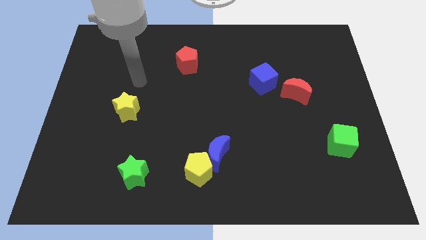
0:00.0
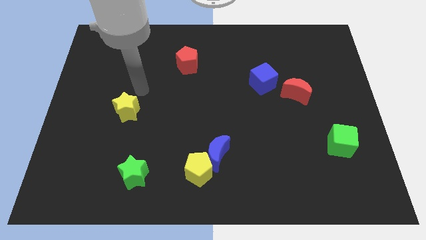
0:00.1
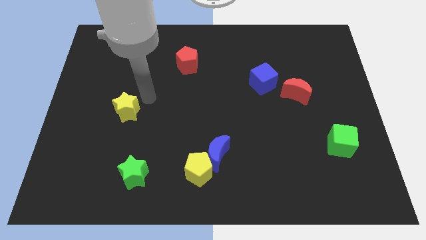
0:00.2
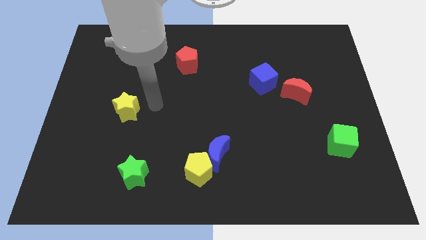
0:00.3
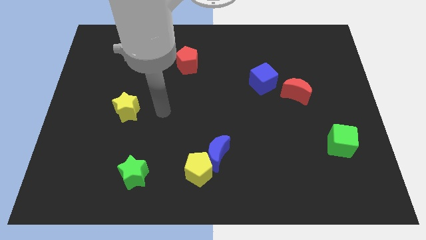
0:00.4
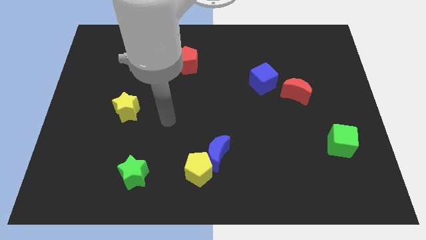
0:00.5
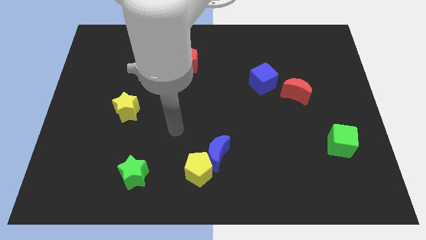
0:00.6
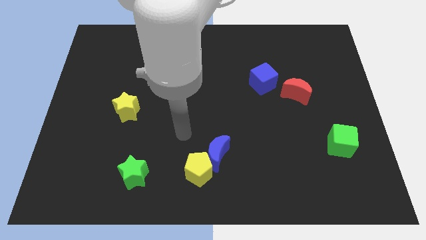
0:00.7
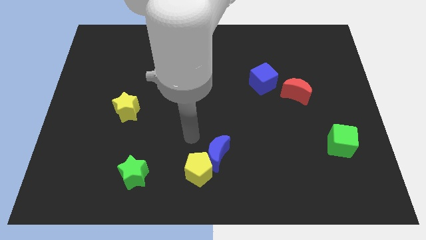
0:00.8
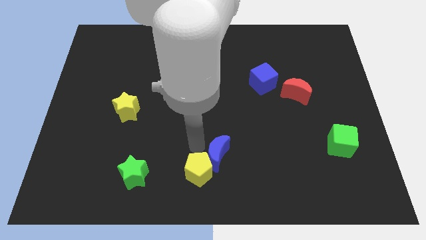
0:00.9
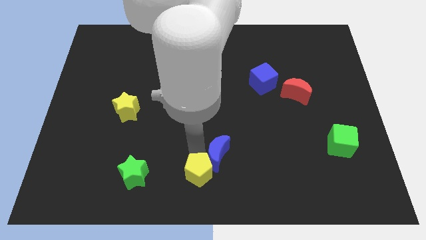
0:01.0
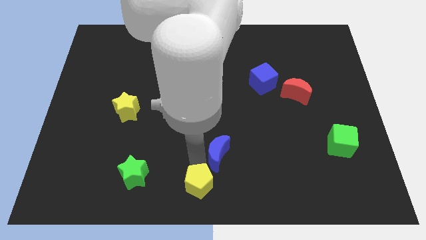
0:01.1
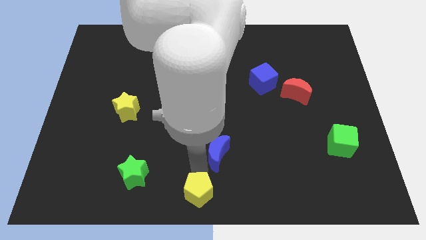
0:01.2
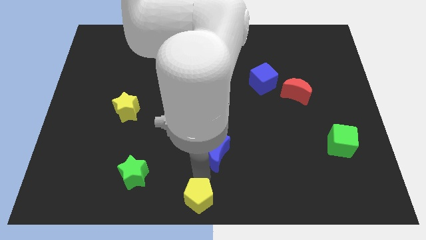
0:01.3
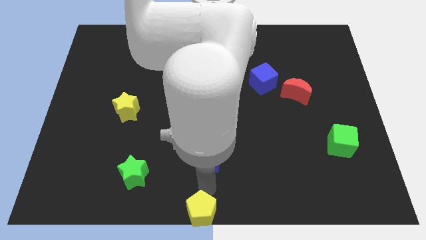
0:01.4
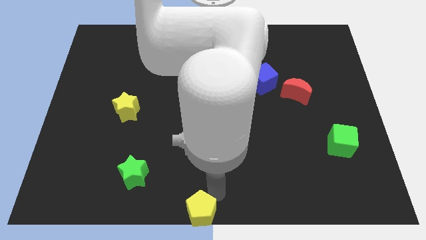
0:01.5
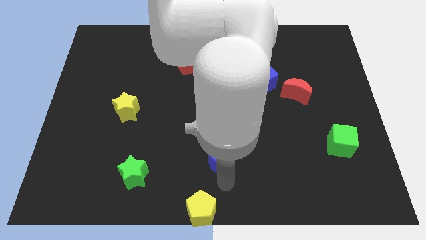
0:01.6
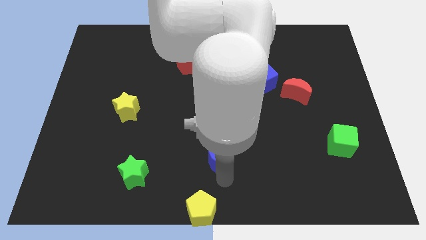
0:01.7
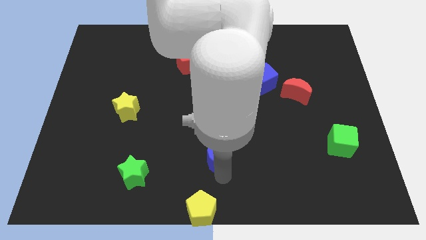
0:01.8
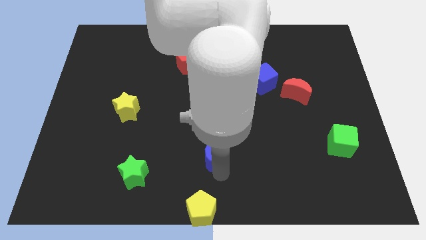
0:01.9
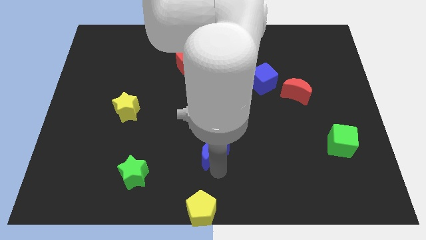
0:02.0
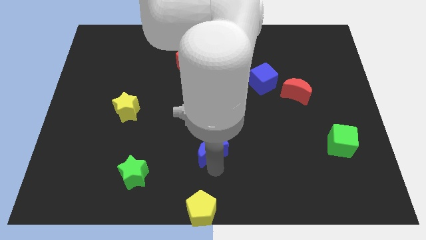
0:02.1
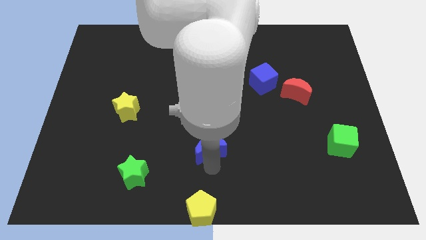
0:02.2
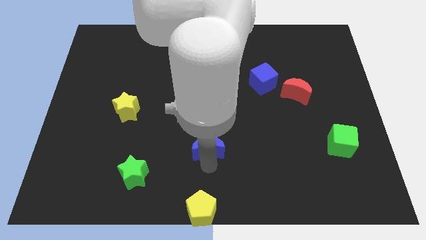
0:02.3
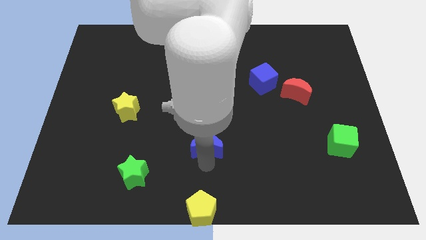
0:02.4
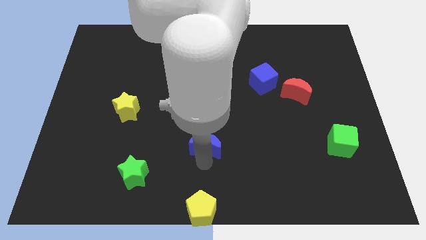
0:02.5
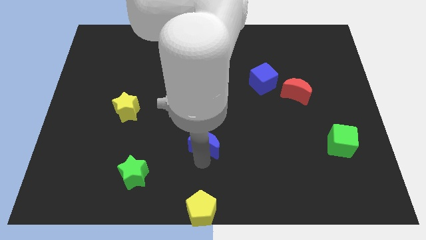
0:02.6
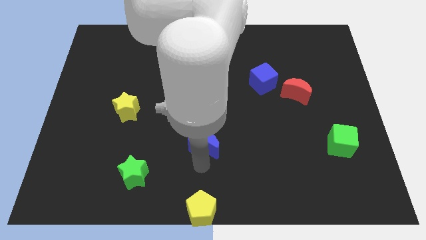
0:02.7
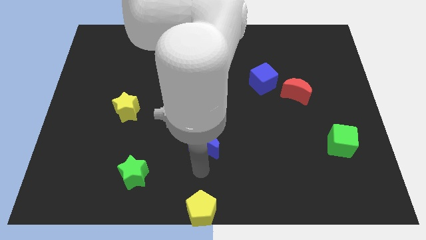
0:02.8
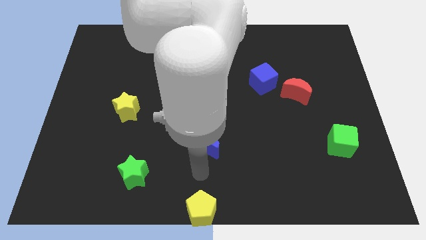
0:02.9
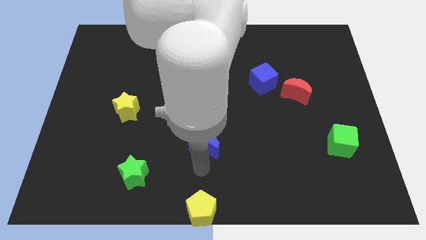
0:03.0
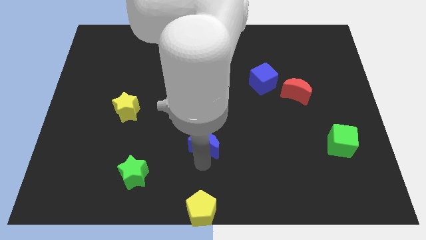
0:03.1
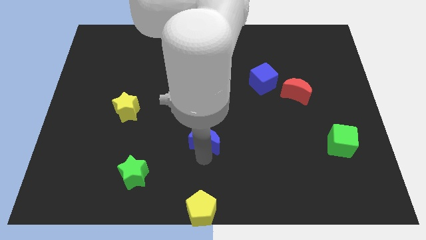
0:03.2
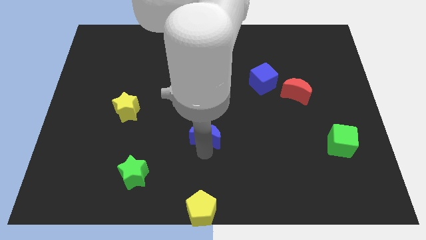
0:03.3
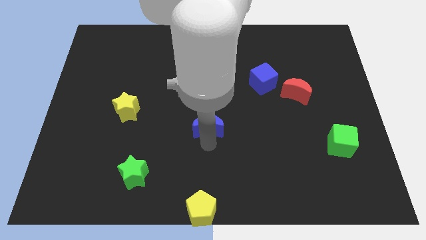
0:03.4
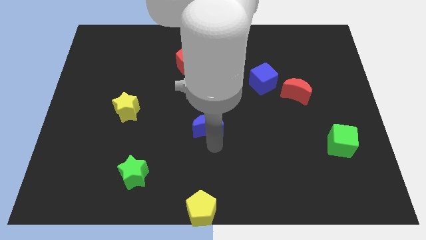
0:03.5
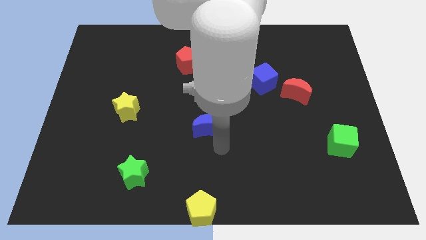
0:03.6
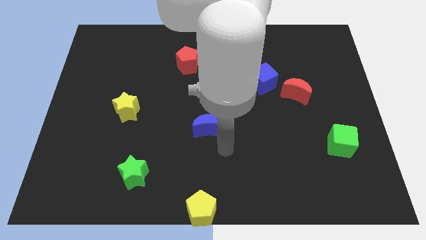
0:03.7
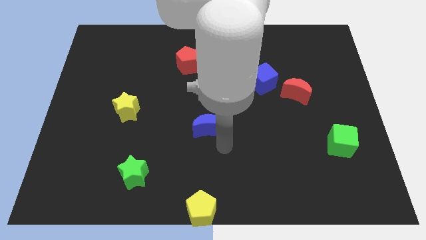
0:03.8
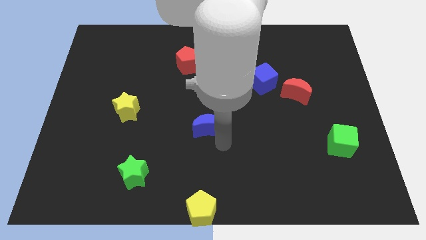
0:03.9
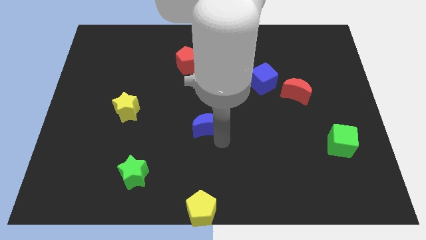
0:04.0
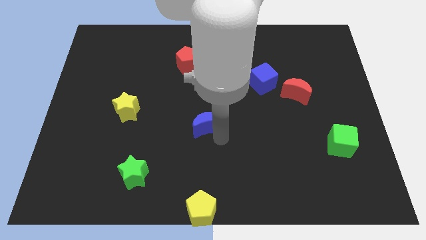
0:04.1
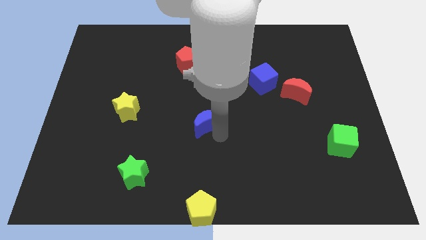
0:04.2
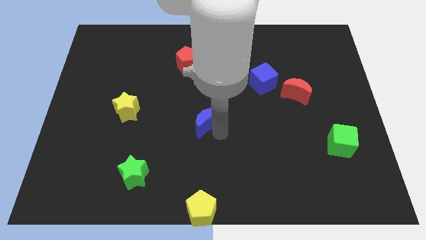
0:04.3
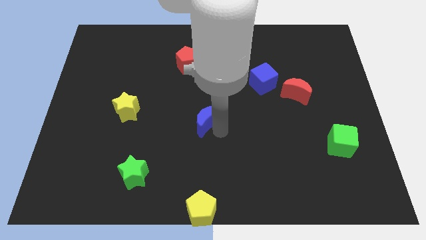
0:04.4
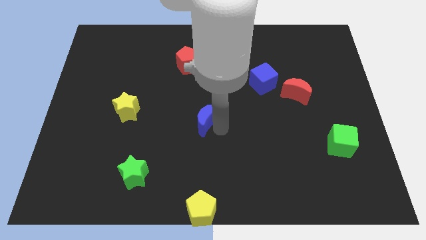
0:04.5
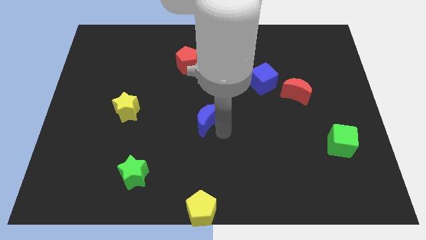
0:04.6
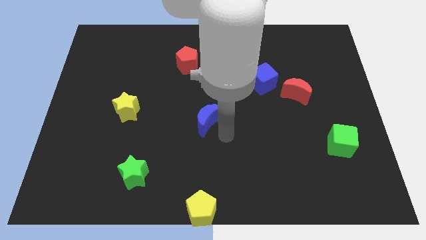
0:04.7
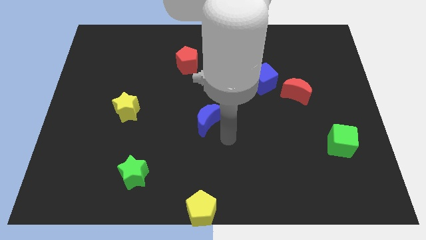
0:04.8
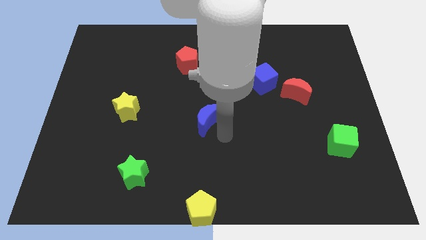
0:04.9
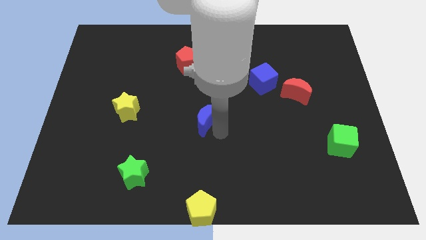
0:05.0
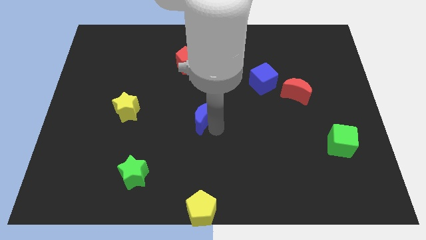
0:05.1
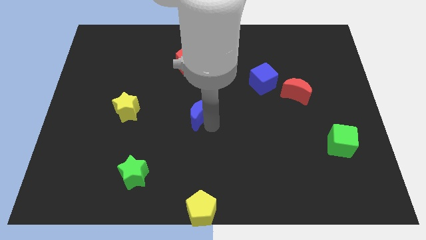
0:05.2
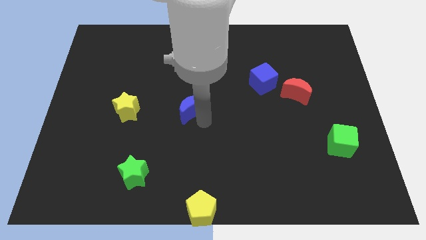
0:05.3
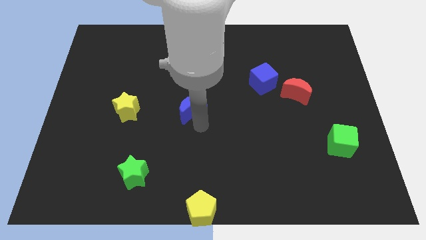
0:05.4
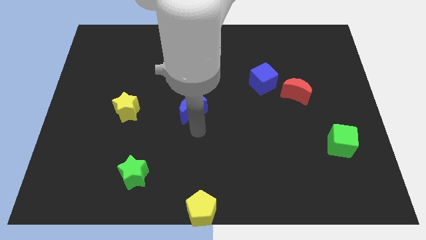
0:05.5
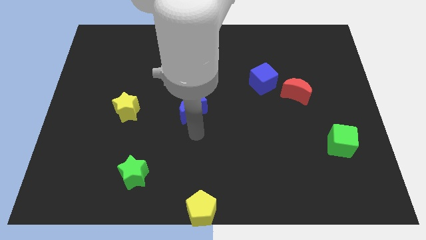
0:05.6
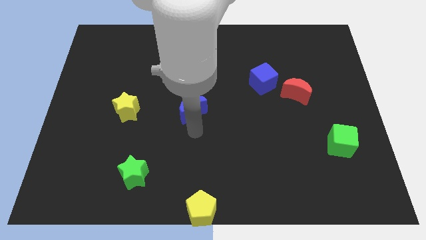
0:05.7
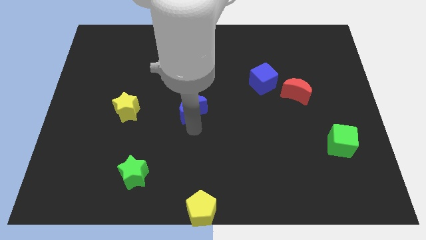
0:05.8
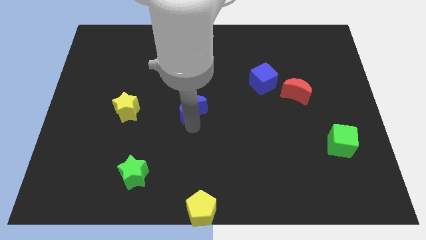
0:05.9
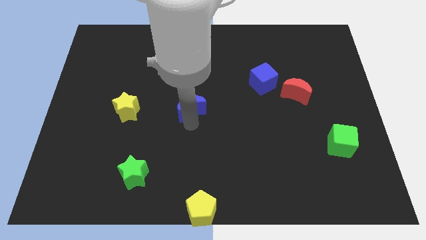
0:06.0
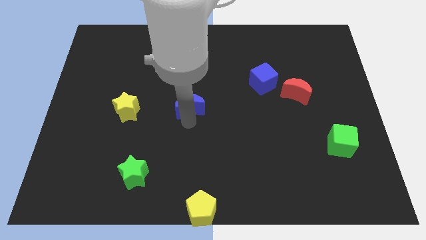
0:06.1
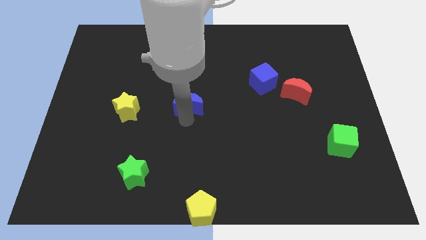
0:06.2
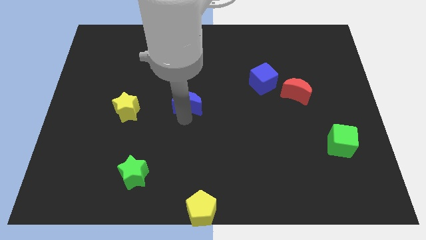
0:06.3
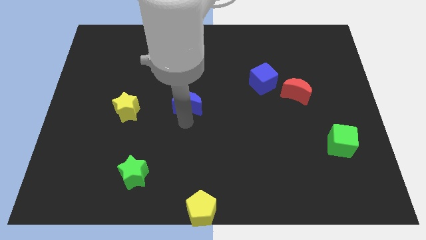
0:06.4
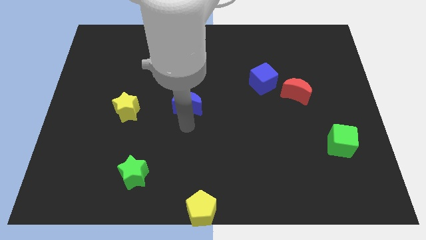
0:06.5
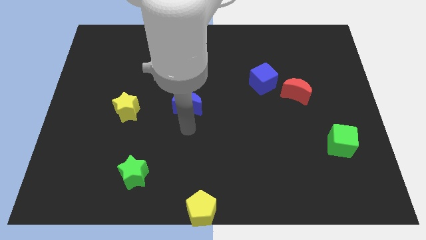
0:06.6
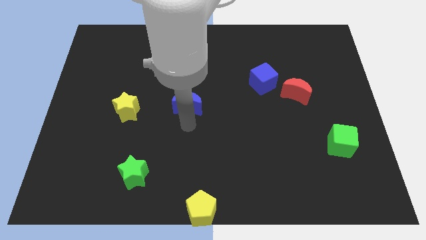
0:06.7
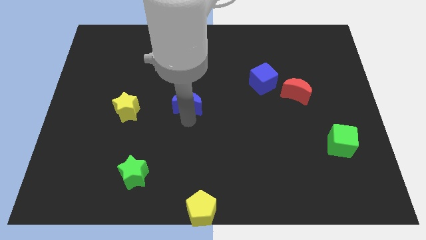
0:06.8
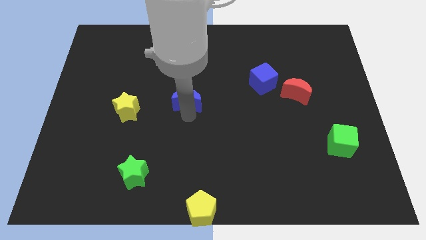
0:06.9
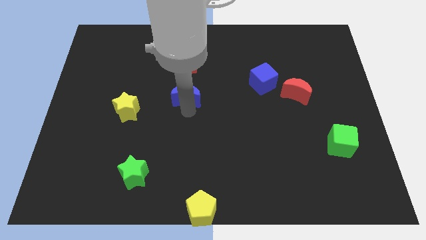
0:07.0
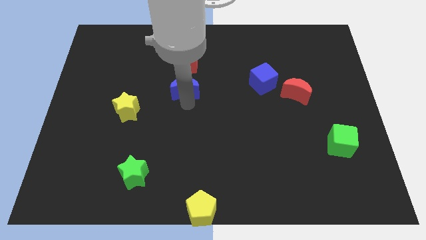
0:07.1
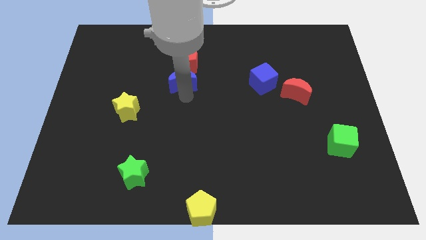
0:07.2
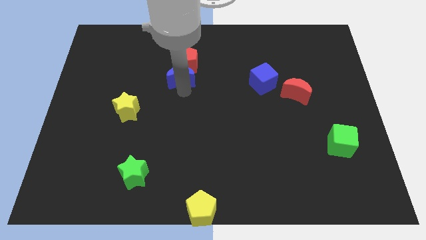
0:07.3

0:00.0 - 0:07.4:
slide the blue moon towards the red pentagon
